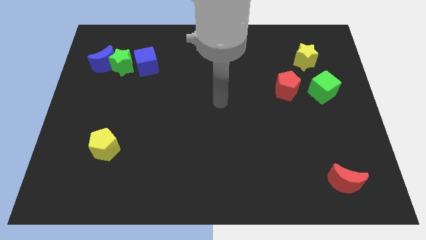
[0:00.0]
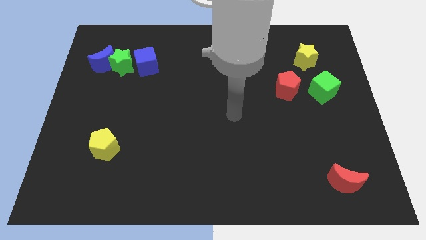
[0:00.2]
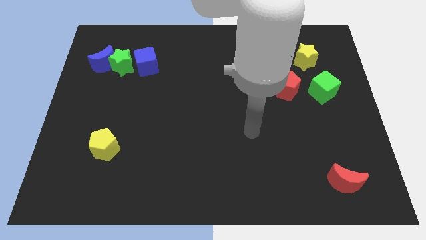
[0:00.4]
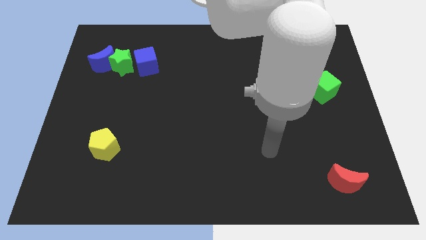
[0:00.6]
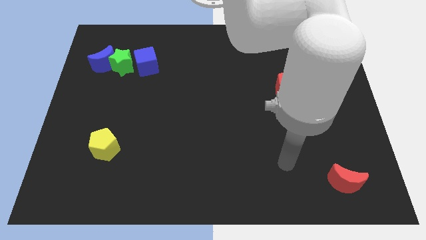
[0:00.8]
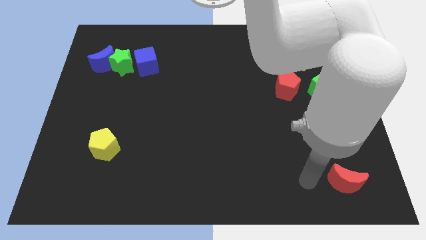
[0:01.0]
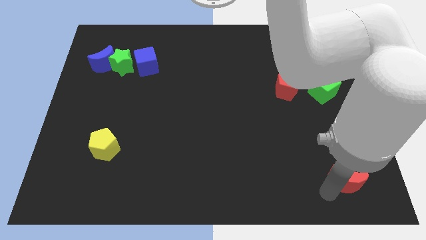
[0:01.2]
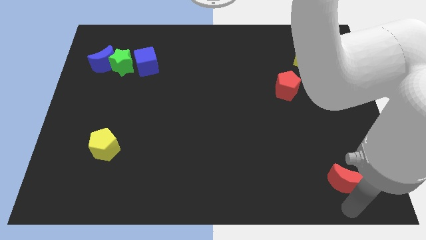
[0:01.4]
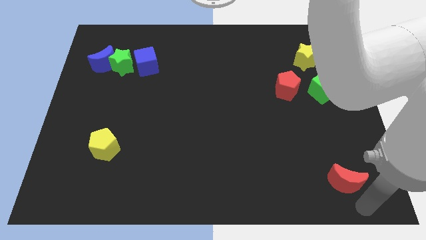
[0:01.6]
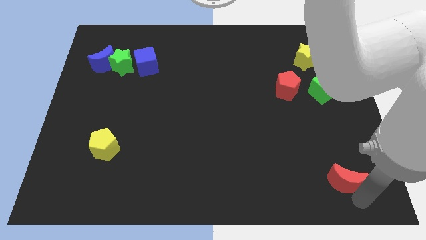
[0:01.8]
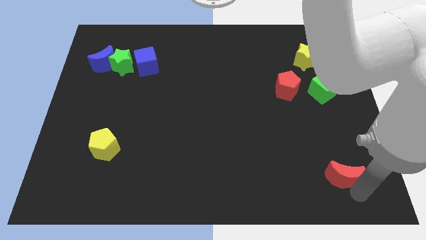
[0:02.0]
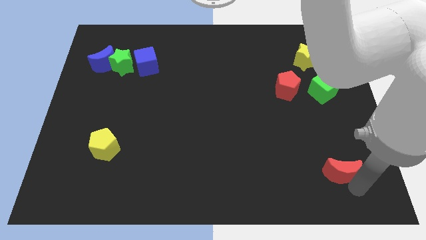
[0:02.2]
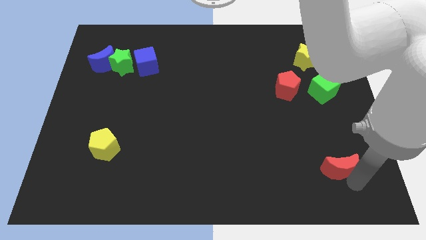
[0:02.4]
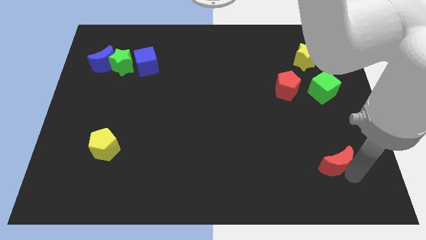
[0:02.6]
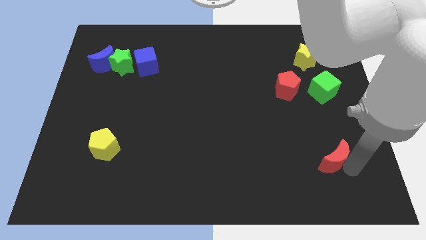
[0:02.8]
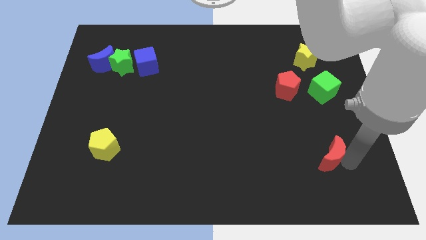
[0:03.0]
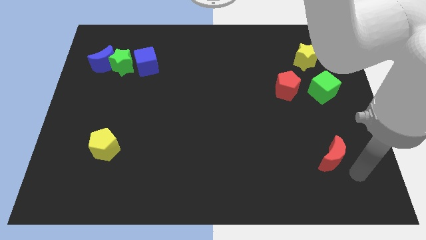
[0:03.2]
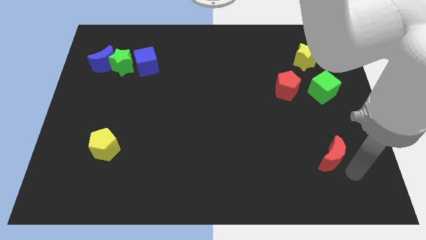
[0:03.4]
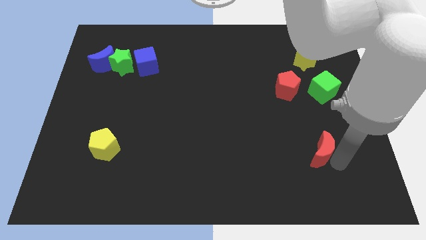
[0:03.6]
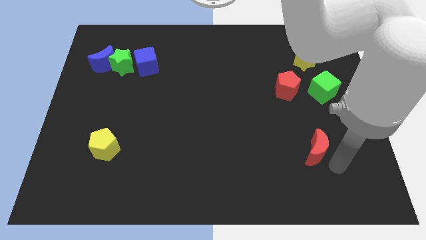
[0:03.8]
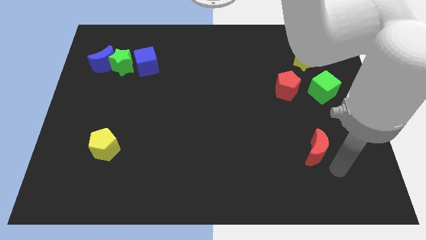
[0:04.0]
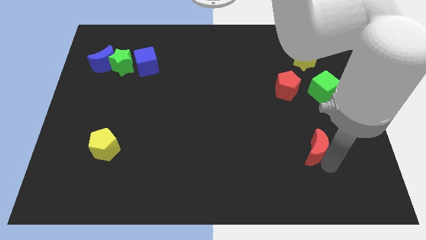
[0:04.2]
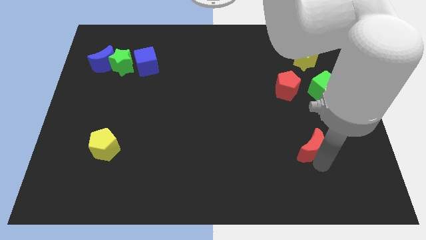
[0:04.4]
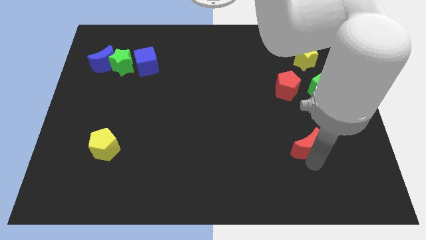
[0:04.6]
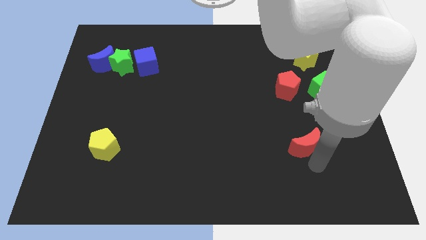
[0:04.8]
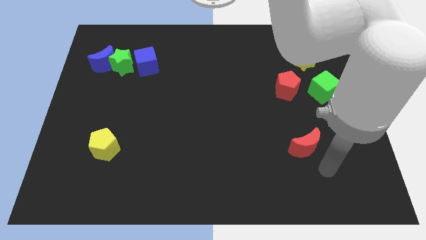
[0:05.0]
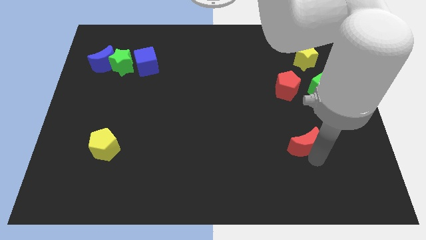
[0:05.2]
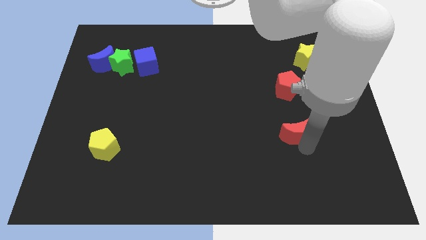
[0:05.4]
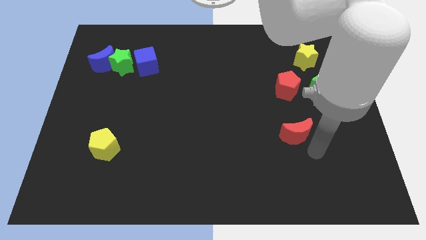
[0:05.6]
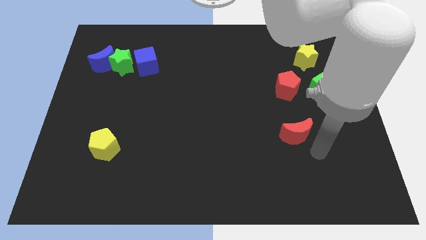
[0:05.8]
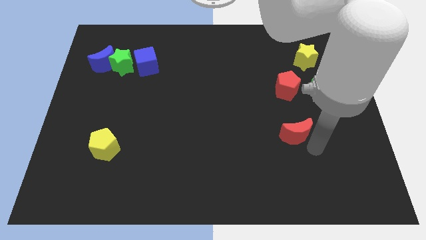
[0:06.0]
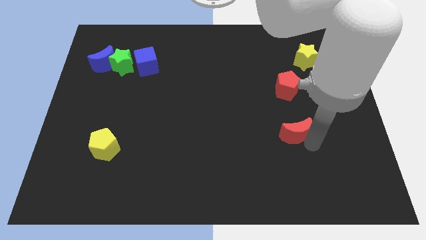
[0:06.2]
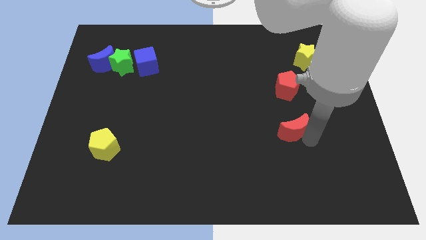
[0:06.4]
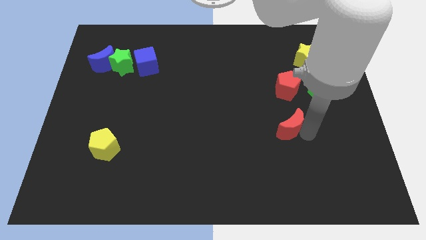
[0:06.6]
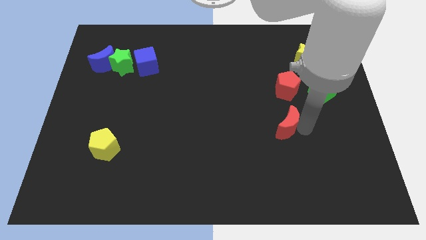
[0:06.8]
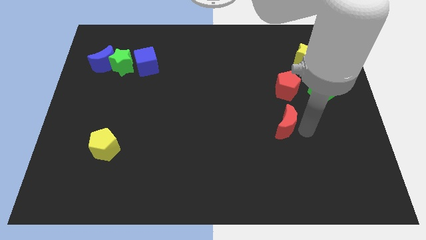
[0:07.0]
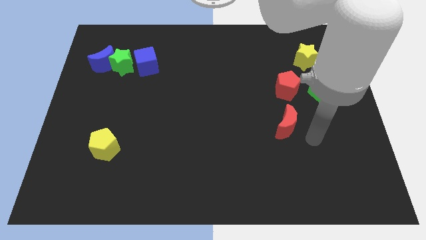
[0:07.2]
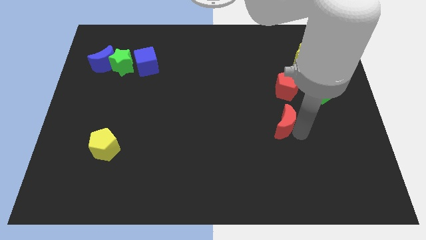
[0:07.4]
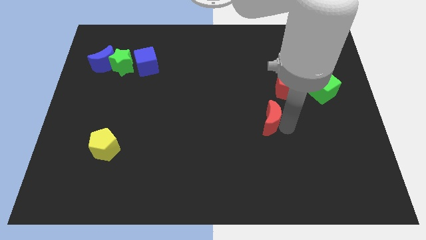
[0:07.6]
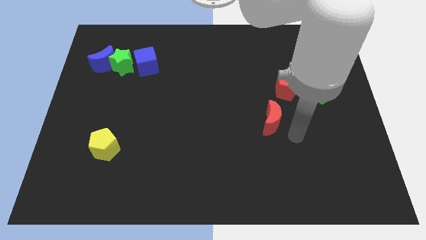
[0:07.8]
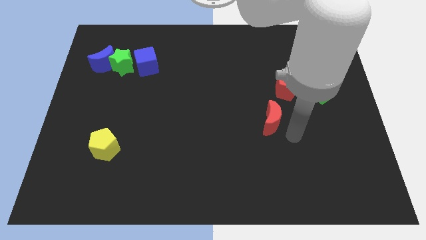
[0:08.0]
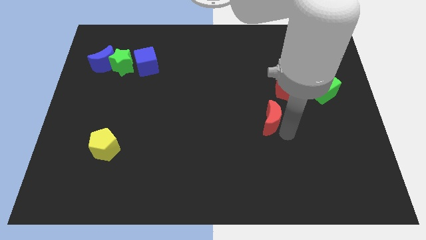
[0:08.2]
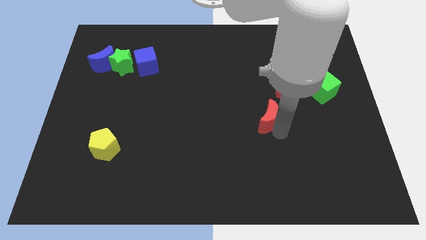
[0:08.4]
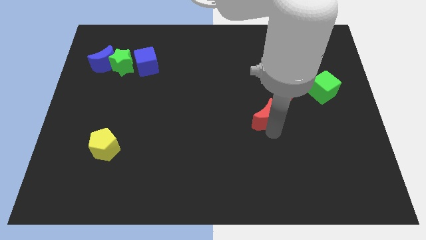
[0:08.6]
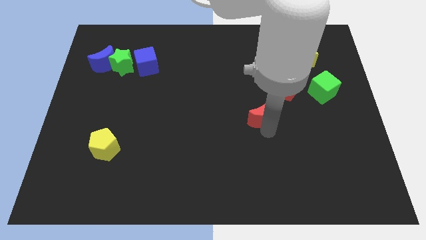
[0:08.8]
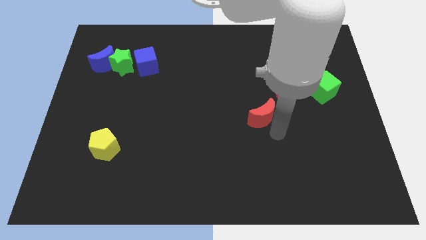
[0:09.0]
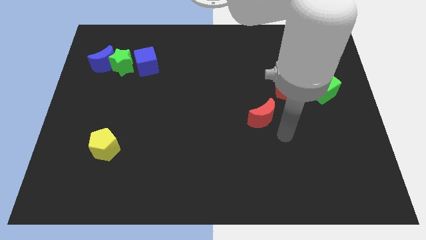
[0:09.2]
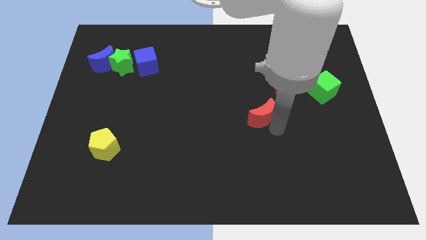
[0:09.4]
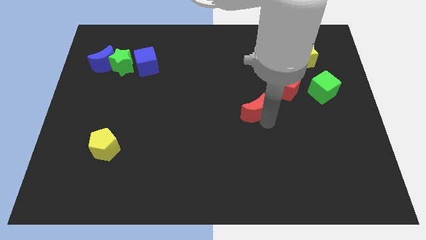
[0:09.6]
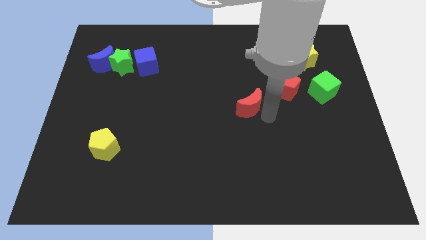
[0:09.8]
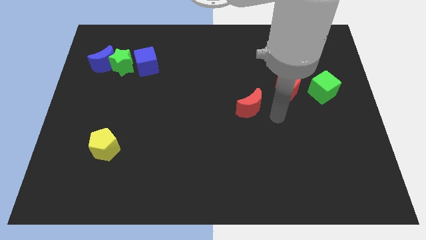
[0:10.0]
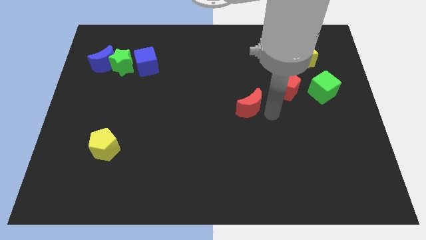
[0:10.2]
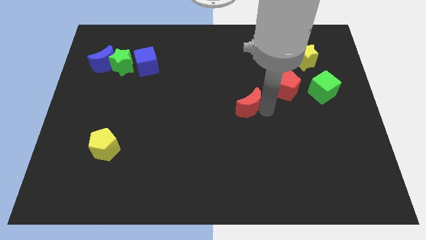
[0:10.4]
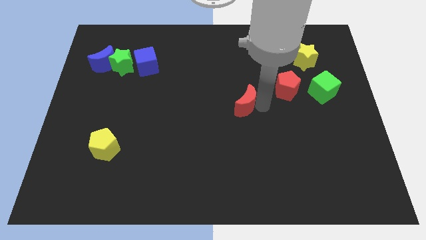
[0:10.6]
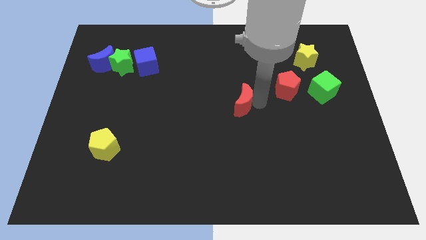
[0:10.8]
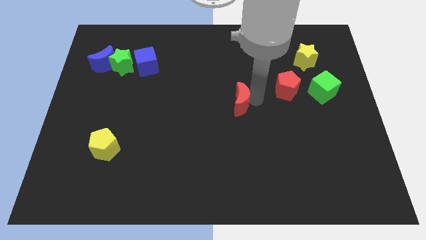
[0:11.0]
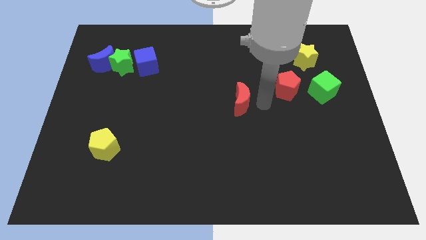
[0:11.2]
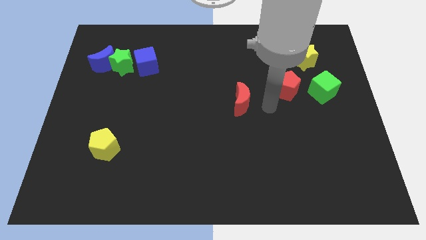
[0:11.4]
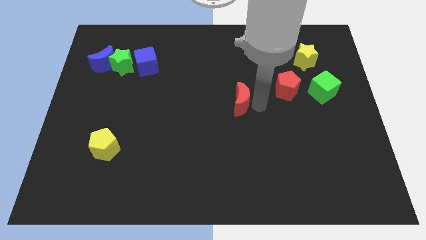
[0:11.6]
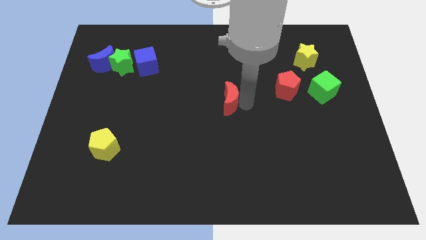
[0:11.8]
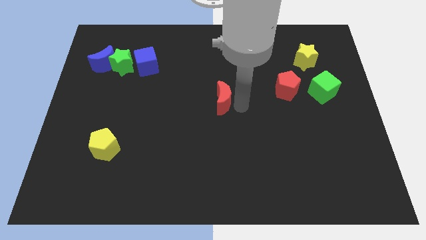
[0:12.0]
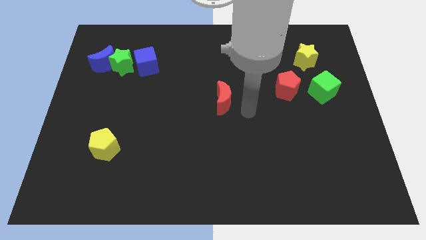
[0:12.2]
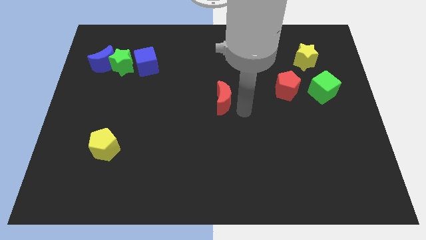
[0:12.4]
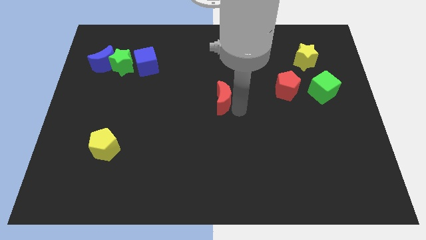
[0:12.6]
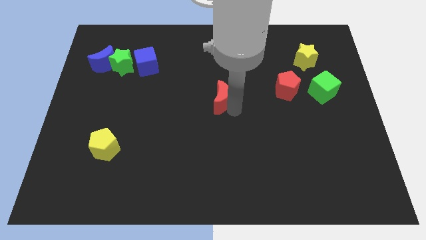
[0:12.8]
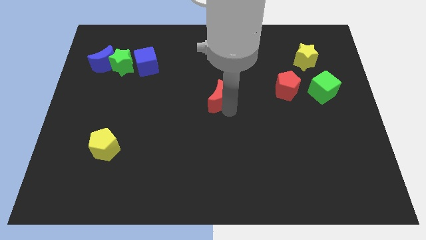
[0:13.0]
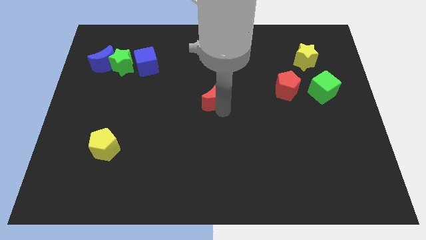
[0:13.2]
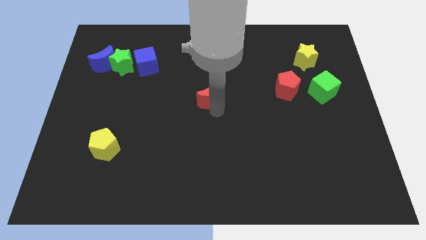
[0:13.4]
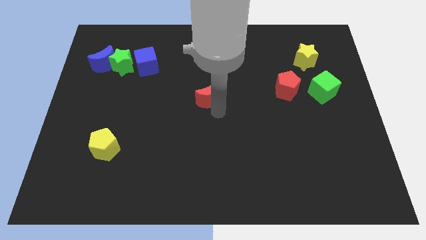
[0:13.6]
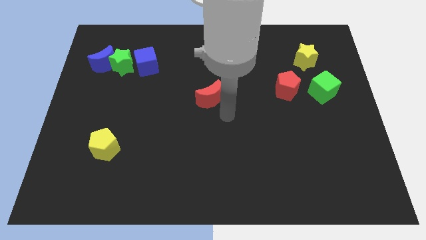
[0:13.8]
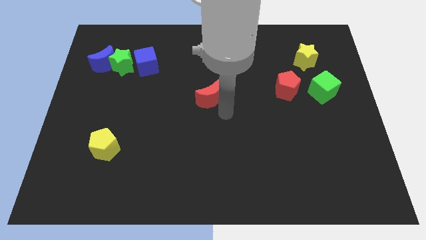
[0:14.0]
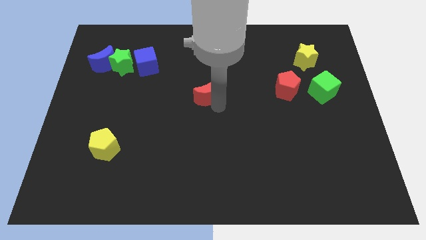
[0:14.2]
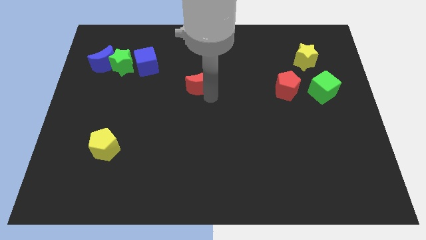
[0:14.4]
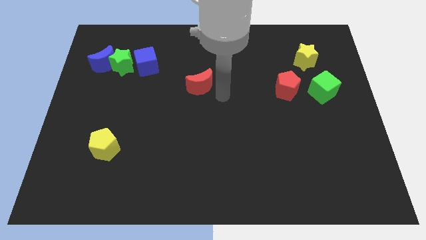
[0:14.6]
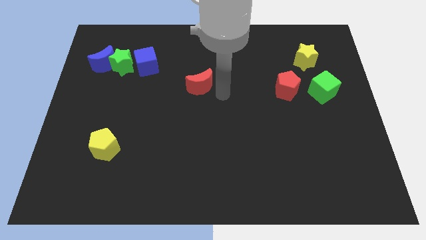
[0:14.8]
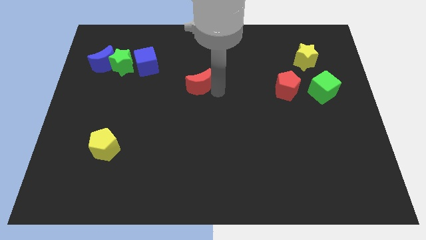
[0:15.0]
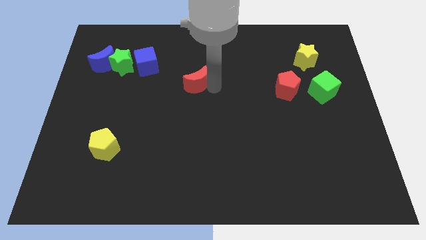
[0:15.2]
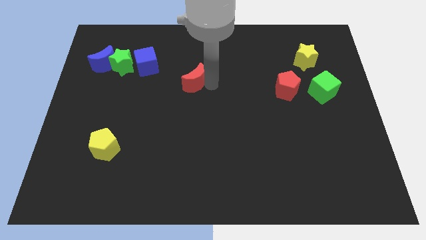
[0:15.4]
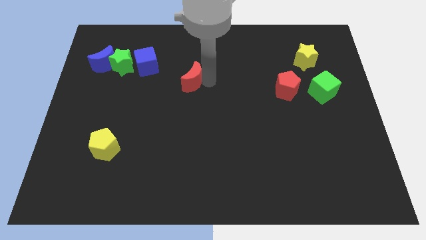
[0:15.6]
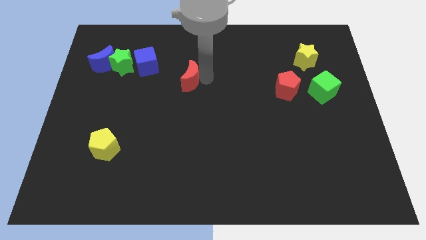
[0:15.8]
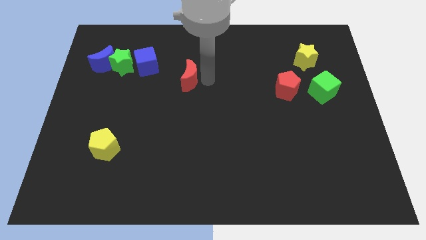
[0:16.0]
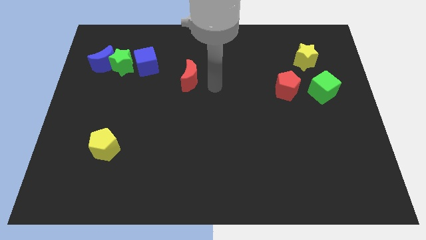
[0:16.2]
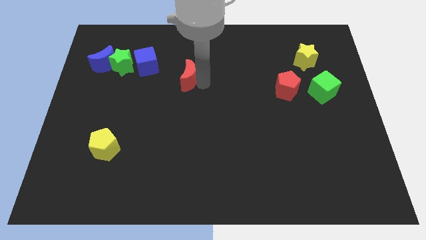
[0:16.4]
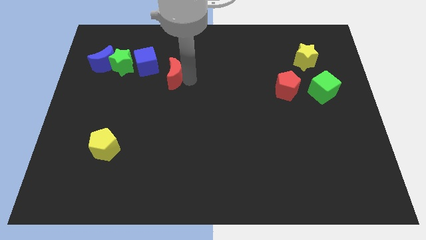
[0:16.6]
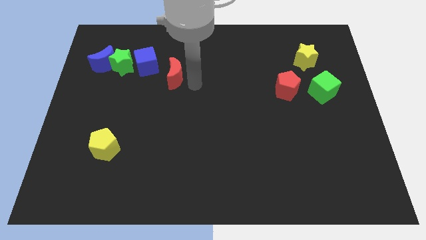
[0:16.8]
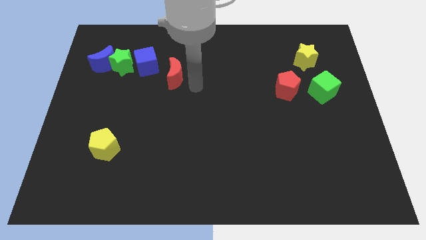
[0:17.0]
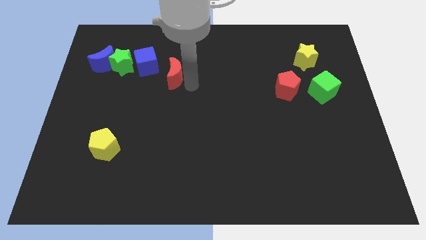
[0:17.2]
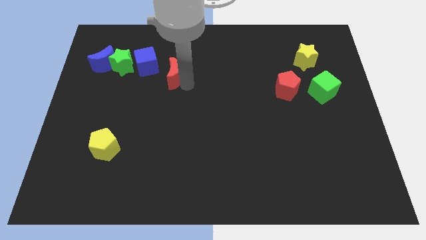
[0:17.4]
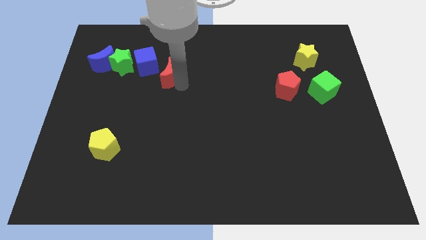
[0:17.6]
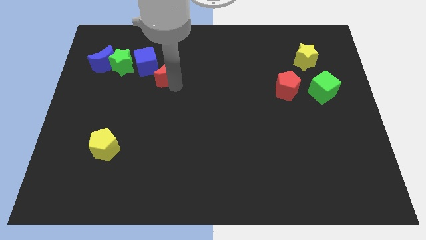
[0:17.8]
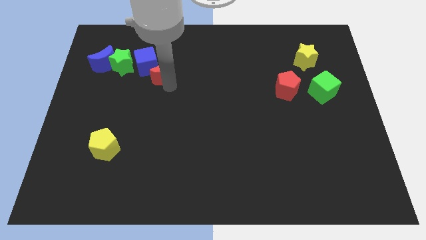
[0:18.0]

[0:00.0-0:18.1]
push the red moon towards the blue cube
